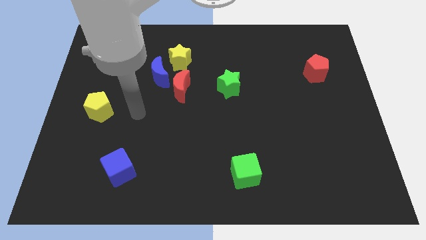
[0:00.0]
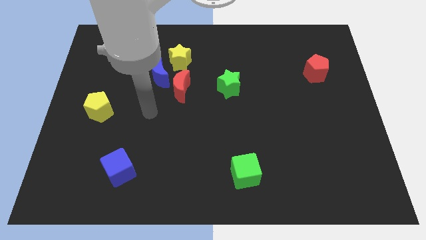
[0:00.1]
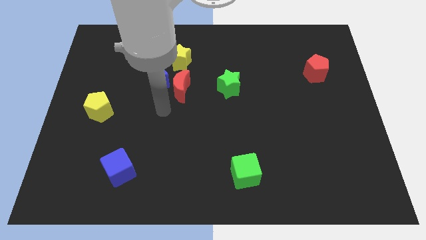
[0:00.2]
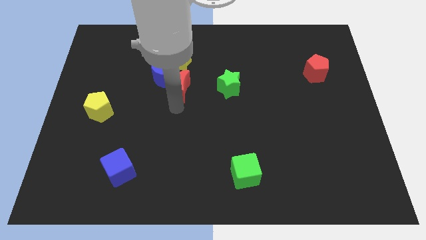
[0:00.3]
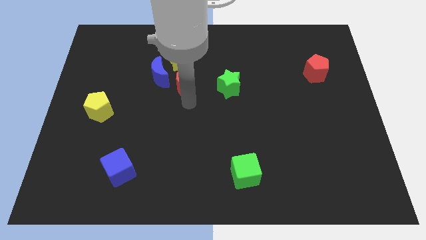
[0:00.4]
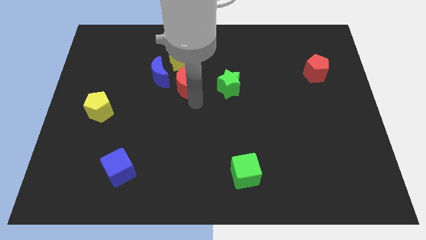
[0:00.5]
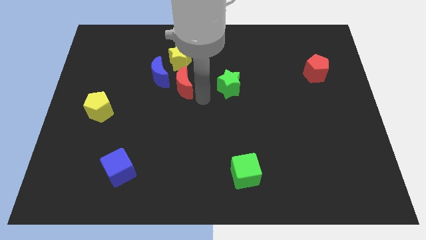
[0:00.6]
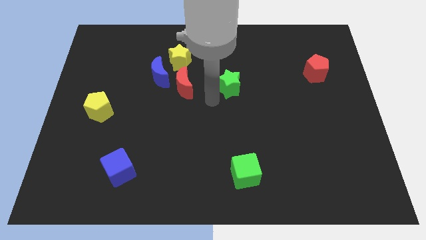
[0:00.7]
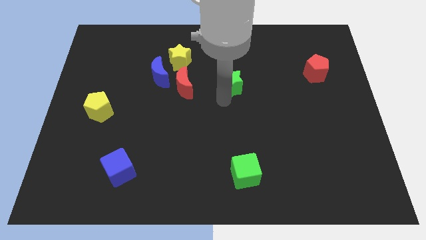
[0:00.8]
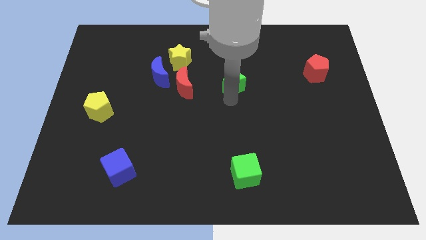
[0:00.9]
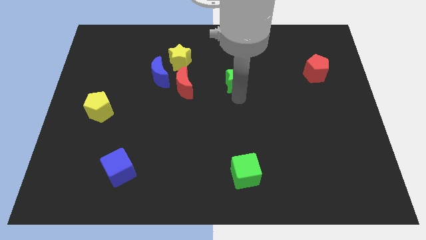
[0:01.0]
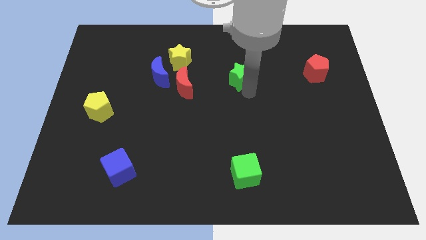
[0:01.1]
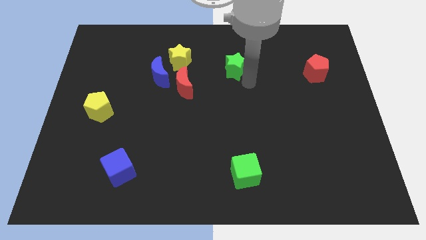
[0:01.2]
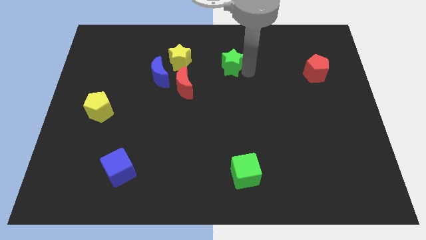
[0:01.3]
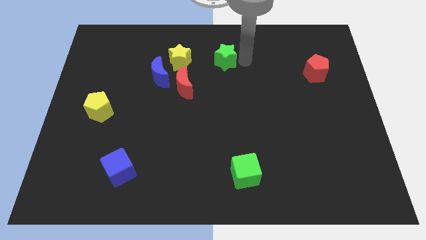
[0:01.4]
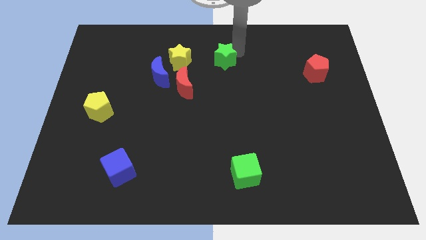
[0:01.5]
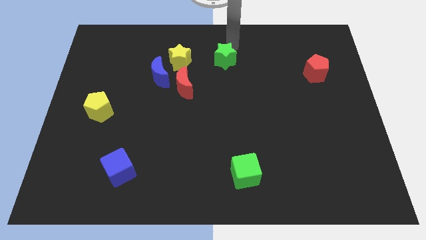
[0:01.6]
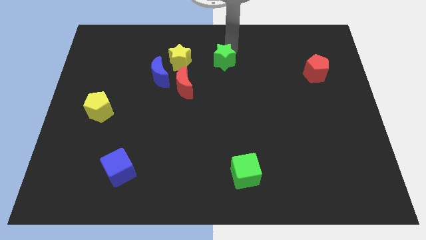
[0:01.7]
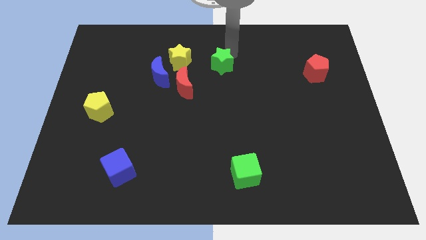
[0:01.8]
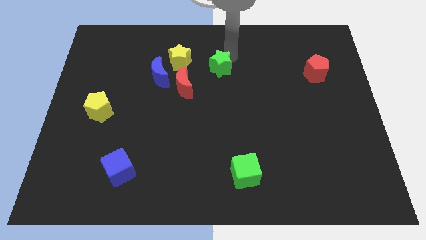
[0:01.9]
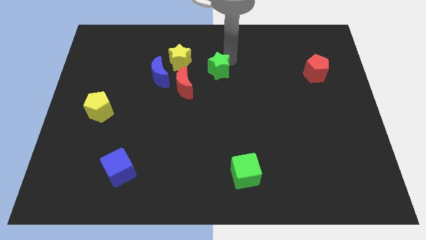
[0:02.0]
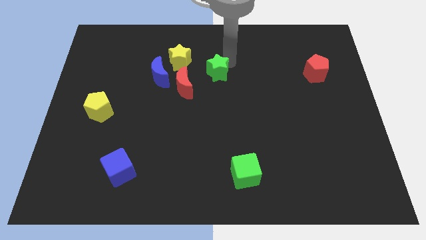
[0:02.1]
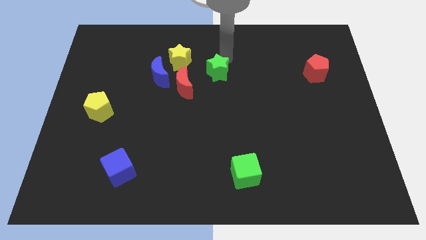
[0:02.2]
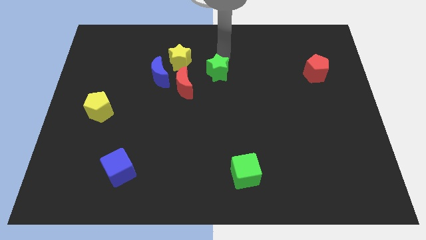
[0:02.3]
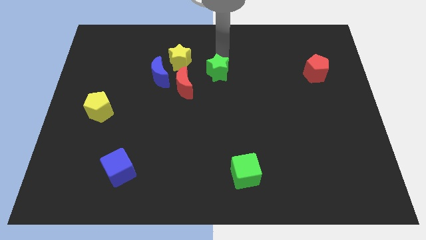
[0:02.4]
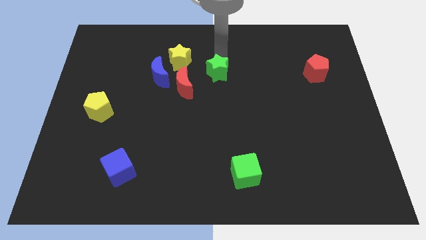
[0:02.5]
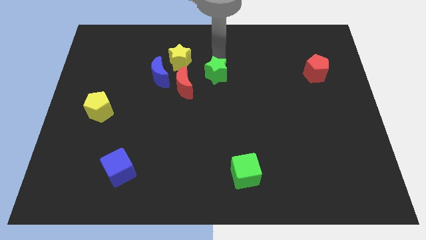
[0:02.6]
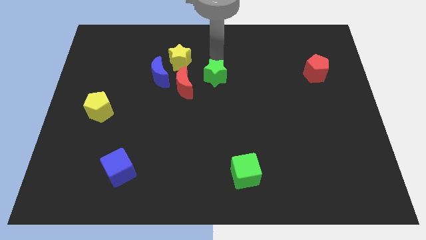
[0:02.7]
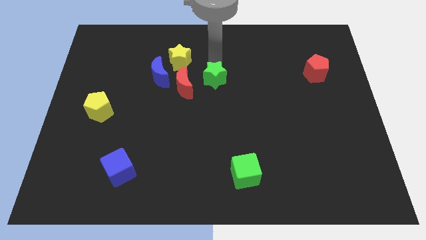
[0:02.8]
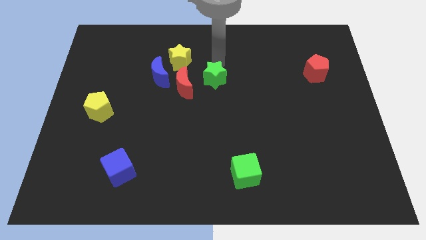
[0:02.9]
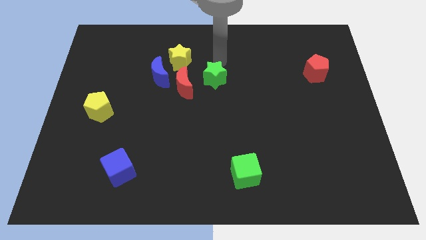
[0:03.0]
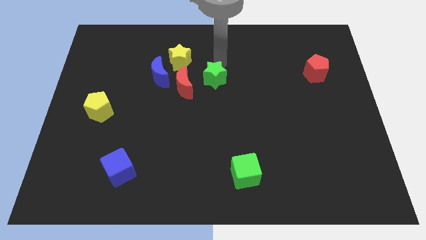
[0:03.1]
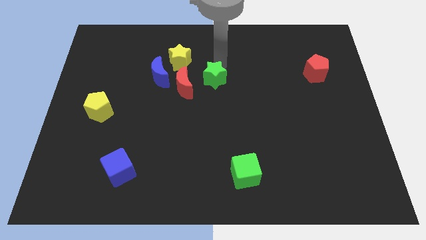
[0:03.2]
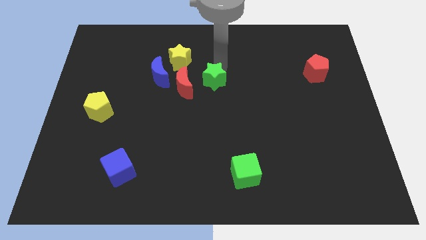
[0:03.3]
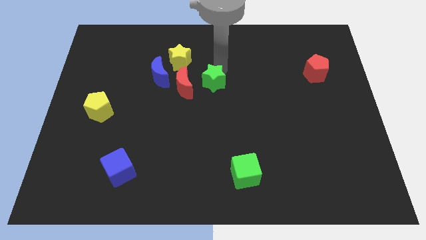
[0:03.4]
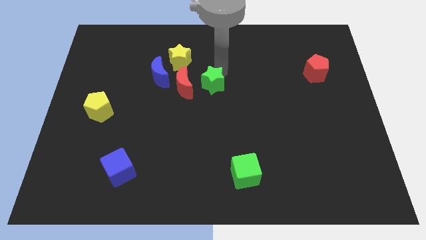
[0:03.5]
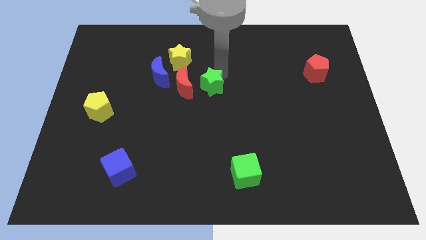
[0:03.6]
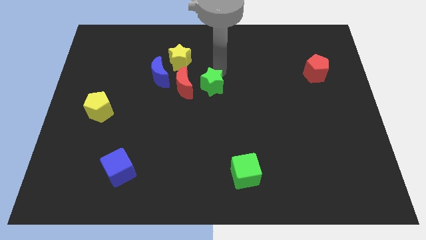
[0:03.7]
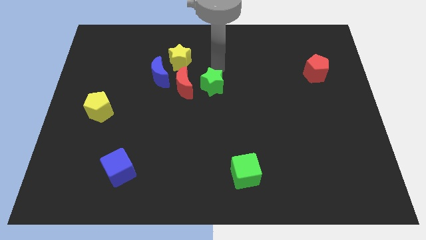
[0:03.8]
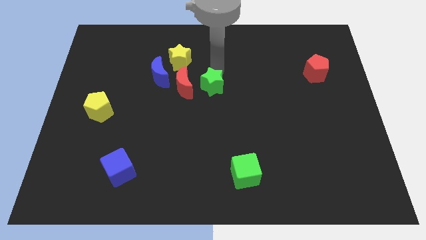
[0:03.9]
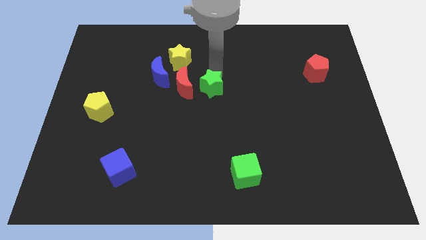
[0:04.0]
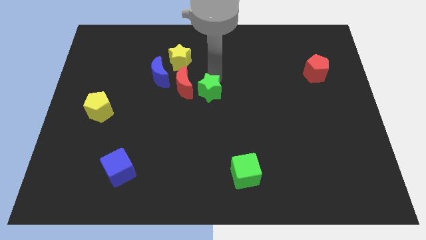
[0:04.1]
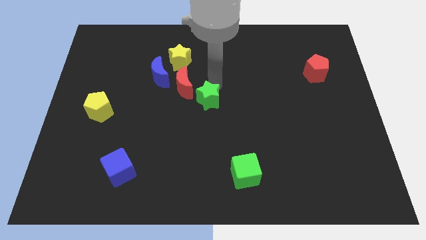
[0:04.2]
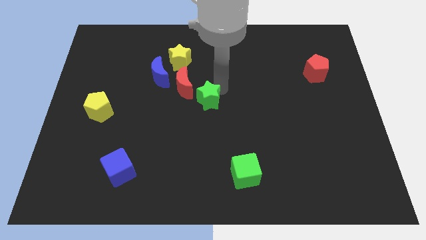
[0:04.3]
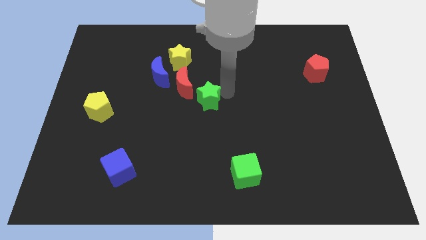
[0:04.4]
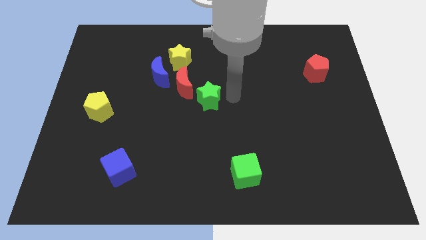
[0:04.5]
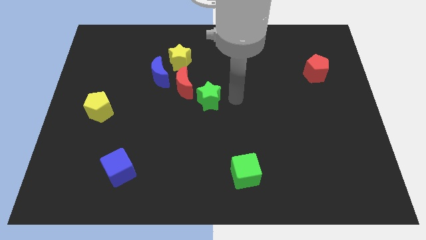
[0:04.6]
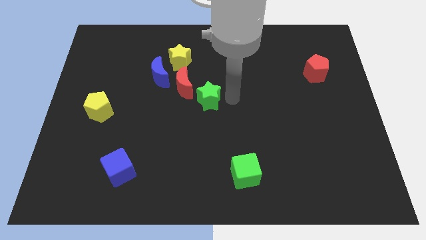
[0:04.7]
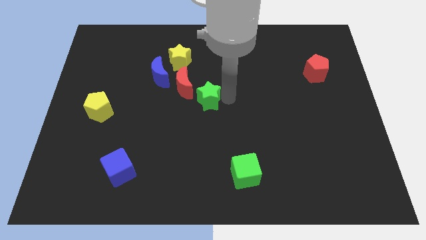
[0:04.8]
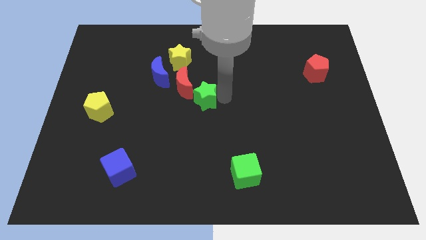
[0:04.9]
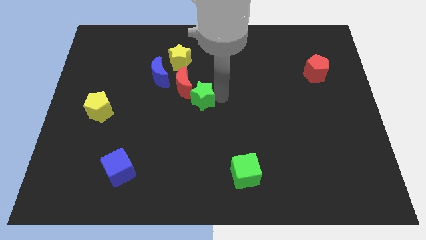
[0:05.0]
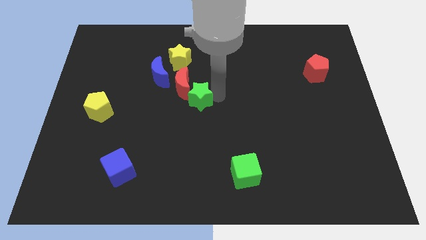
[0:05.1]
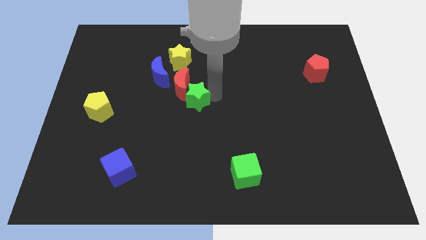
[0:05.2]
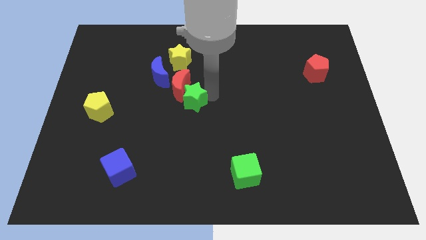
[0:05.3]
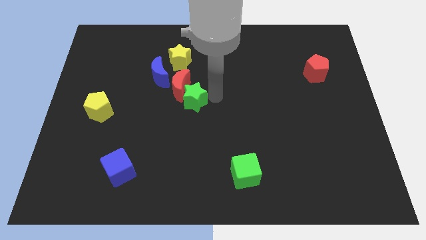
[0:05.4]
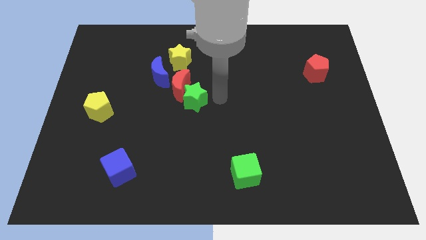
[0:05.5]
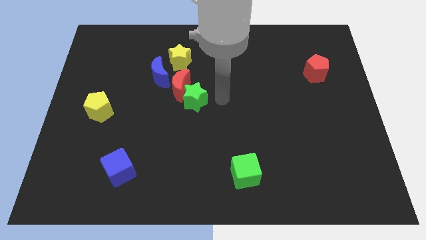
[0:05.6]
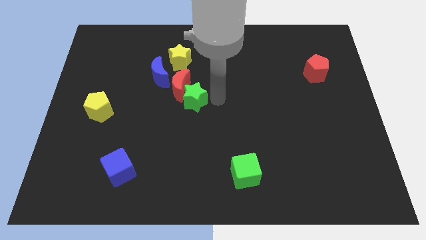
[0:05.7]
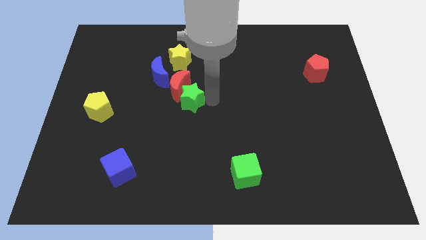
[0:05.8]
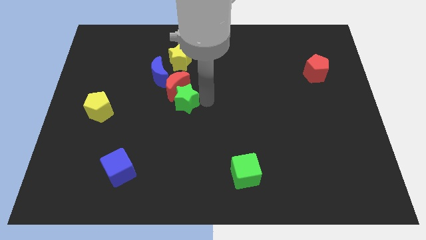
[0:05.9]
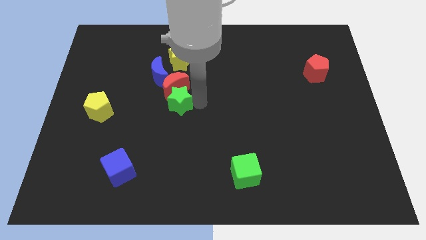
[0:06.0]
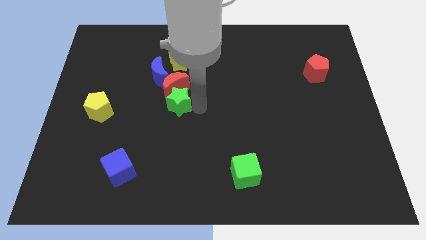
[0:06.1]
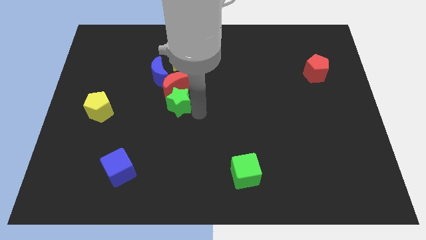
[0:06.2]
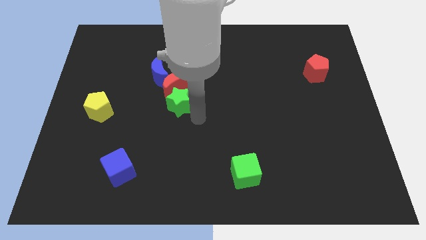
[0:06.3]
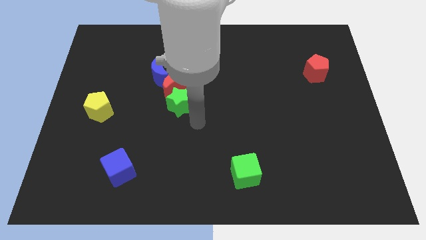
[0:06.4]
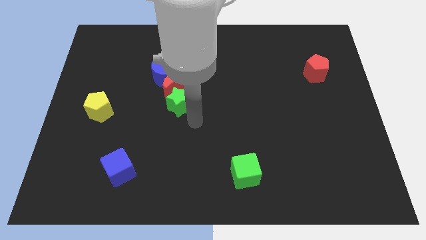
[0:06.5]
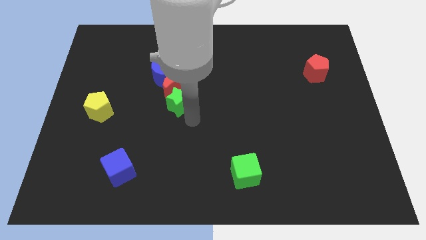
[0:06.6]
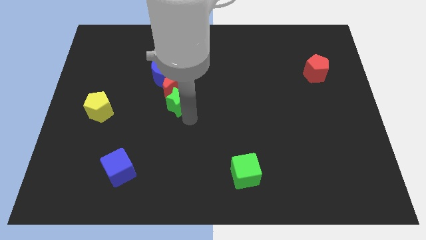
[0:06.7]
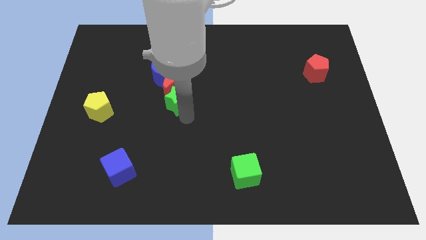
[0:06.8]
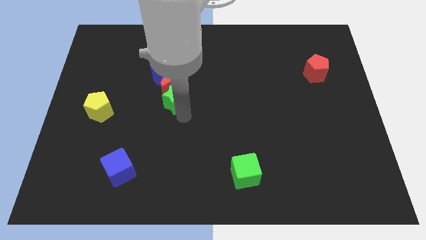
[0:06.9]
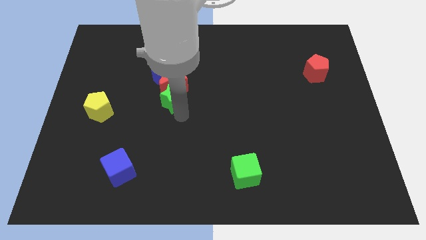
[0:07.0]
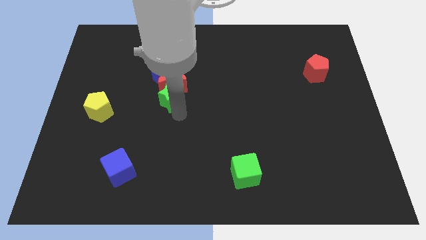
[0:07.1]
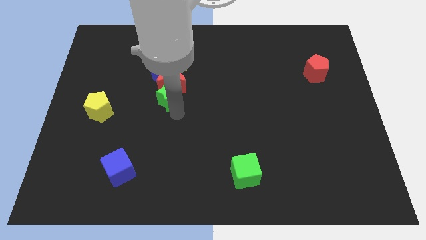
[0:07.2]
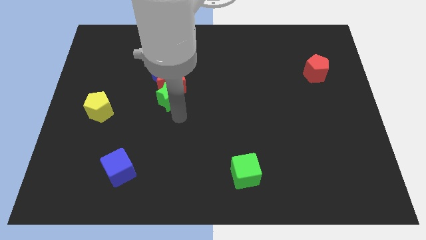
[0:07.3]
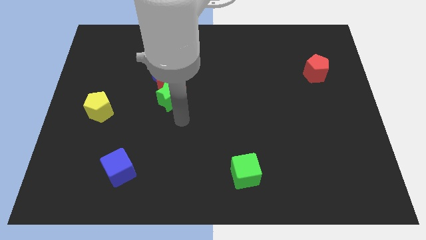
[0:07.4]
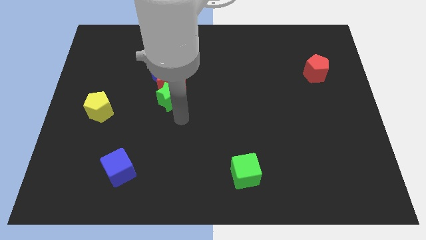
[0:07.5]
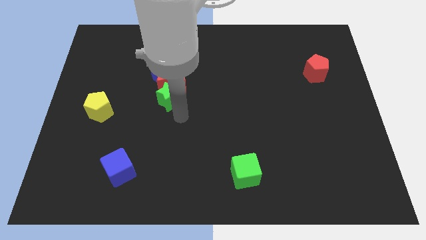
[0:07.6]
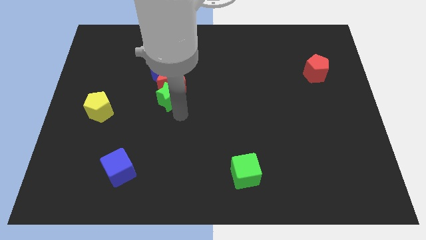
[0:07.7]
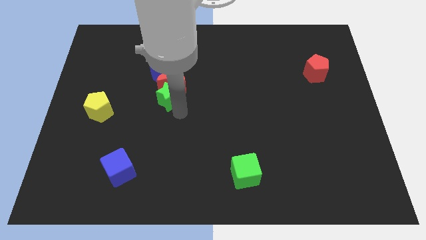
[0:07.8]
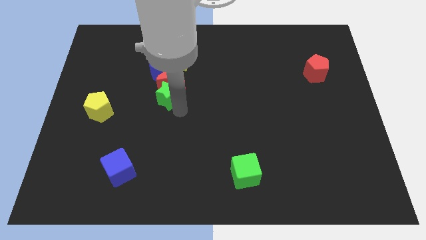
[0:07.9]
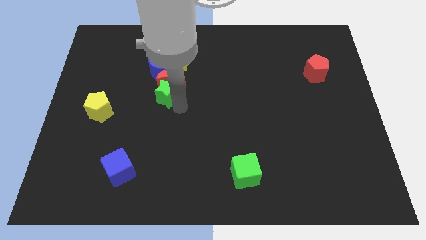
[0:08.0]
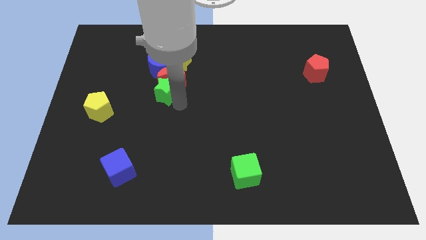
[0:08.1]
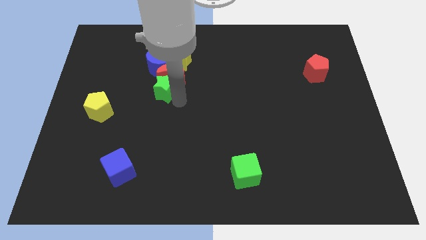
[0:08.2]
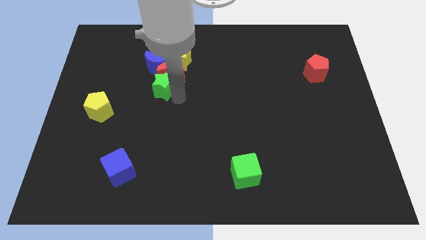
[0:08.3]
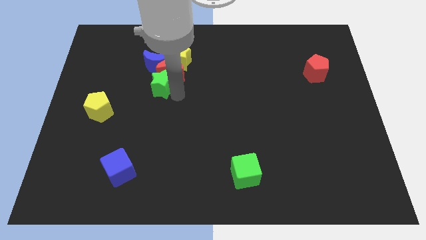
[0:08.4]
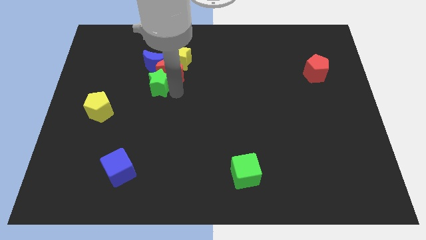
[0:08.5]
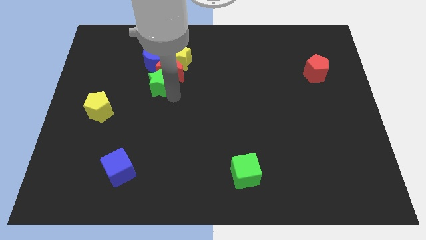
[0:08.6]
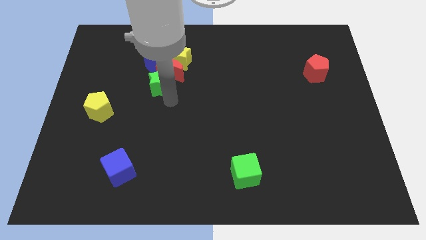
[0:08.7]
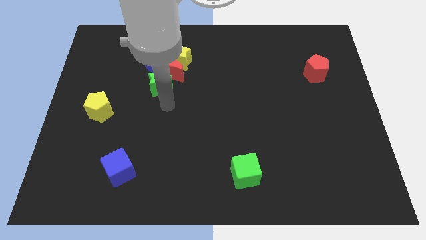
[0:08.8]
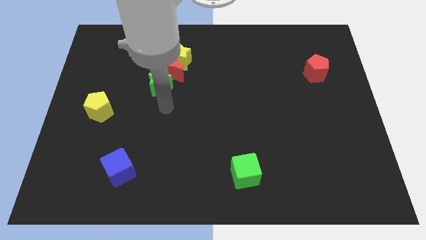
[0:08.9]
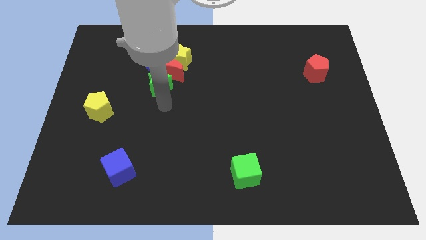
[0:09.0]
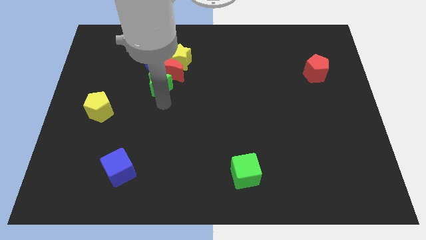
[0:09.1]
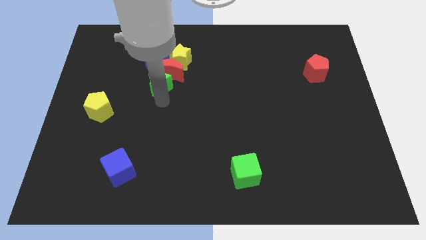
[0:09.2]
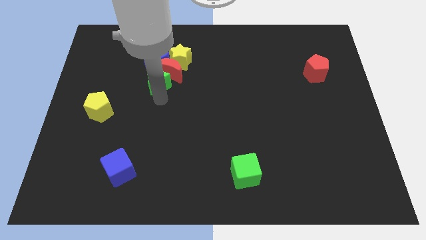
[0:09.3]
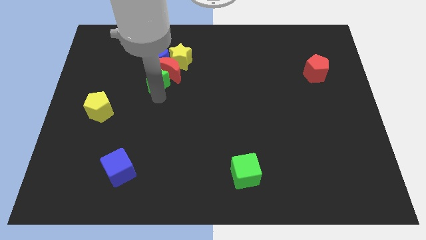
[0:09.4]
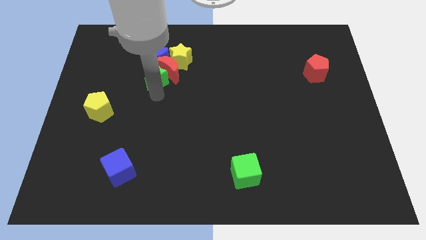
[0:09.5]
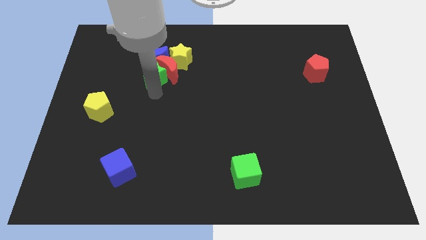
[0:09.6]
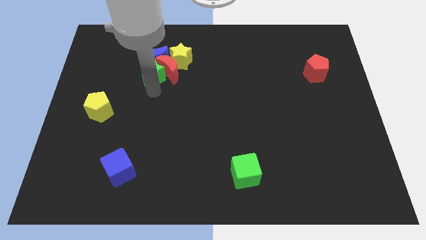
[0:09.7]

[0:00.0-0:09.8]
slide the green star to the blue moon
